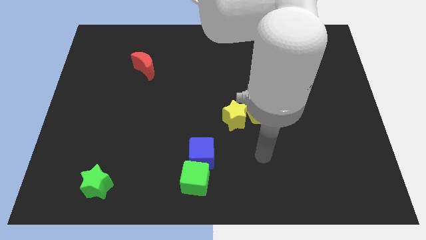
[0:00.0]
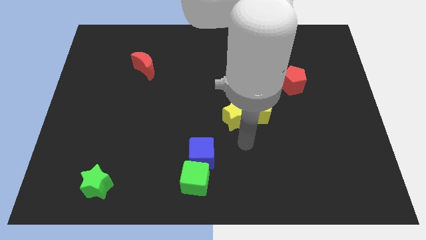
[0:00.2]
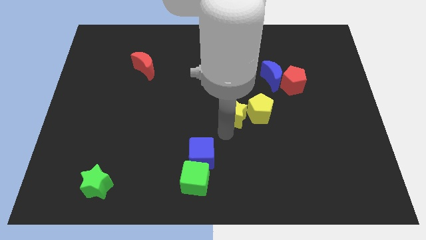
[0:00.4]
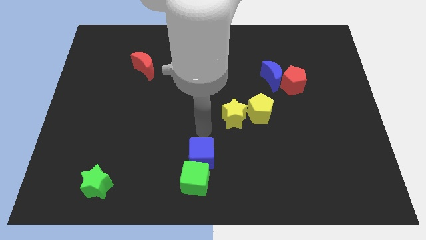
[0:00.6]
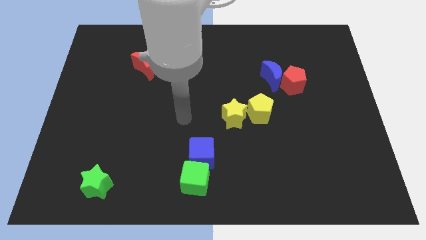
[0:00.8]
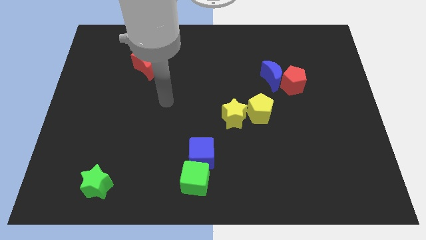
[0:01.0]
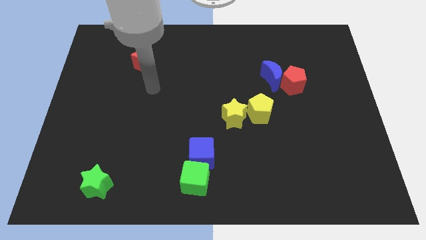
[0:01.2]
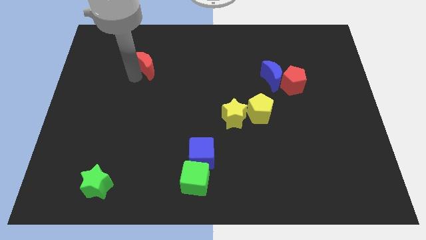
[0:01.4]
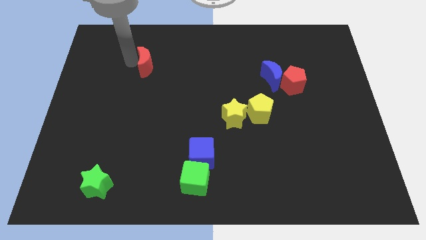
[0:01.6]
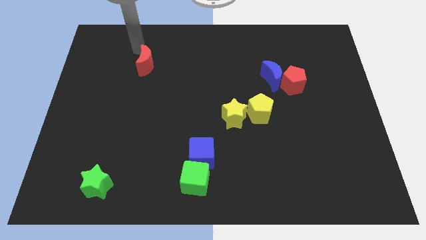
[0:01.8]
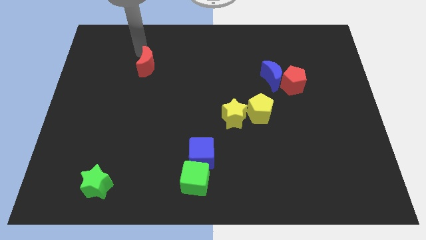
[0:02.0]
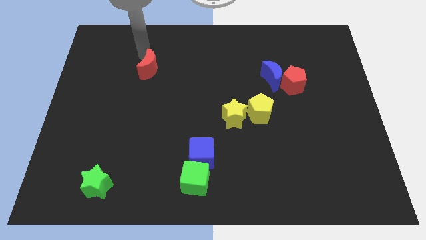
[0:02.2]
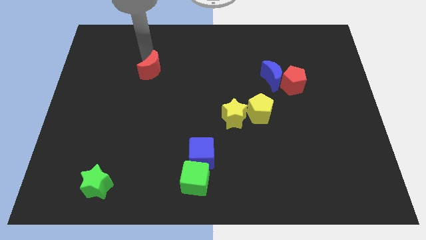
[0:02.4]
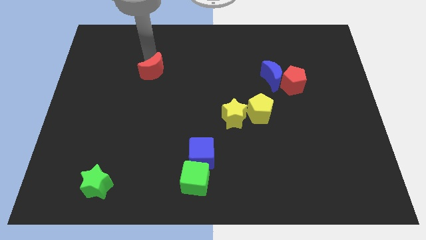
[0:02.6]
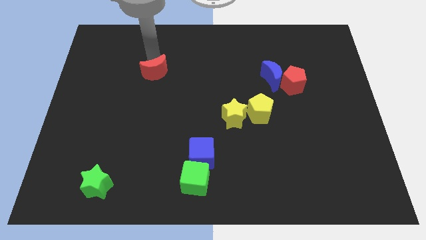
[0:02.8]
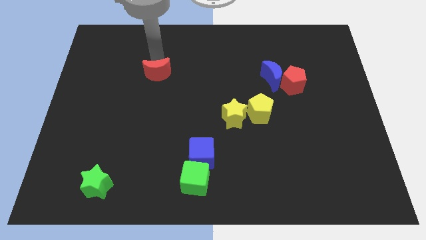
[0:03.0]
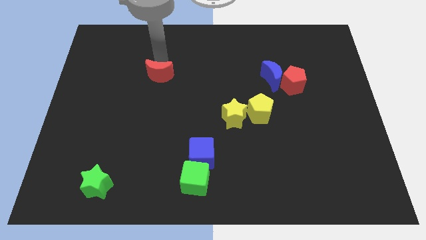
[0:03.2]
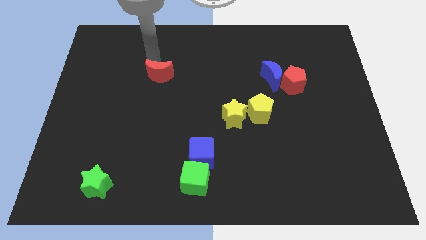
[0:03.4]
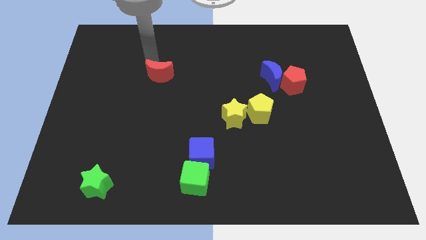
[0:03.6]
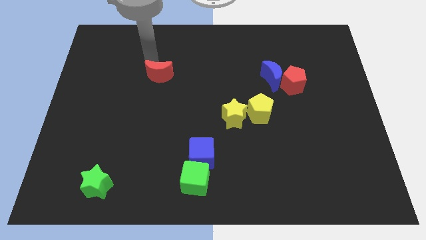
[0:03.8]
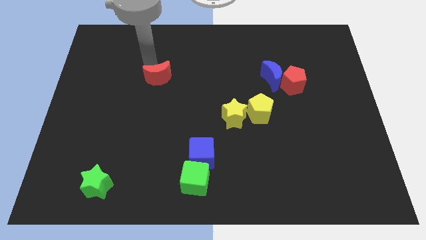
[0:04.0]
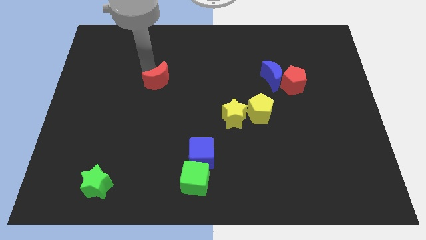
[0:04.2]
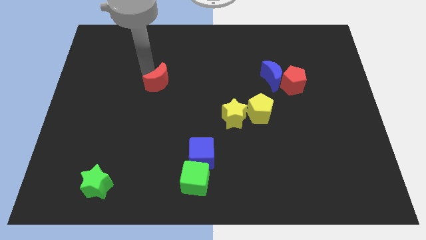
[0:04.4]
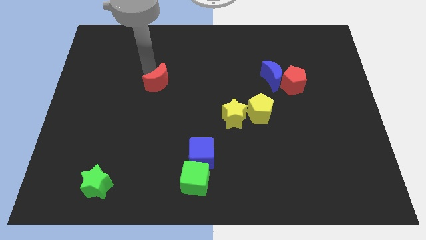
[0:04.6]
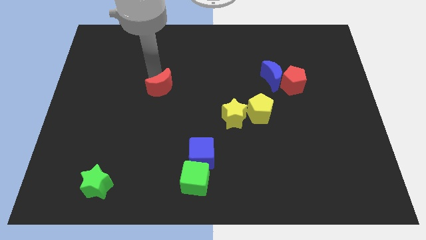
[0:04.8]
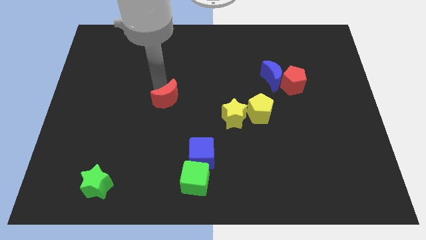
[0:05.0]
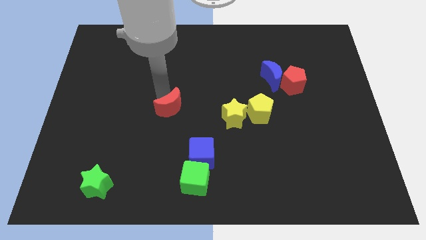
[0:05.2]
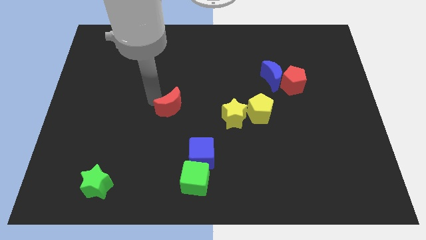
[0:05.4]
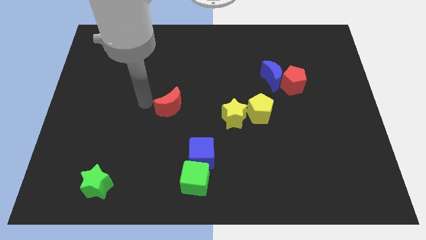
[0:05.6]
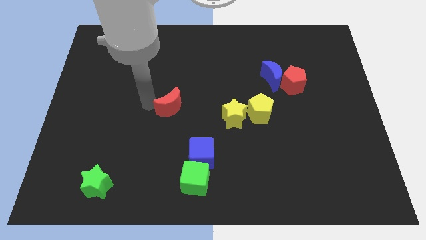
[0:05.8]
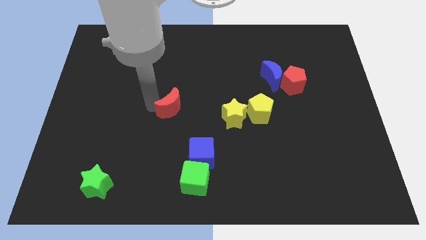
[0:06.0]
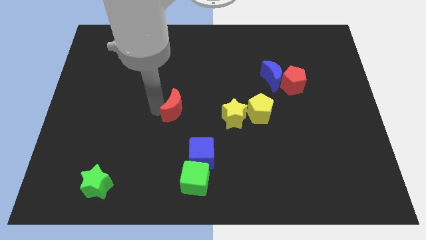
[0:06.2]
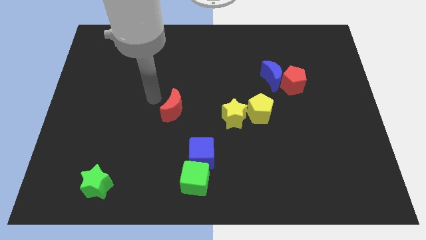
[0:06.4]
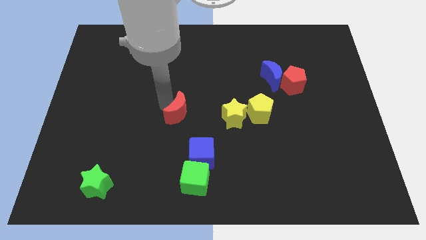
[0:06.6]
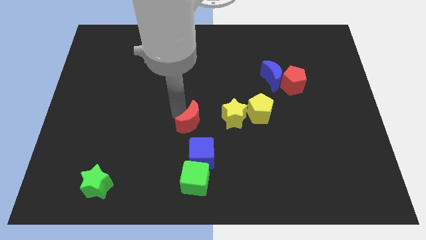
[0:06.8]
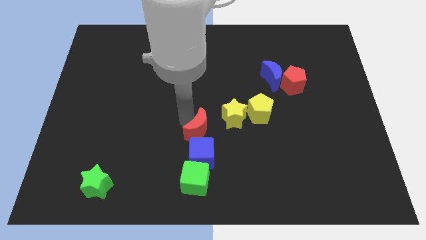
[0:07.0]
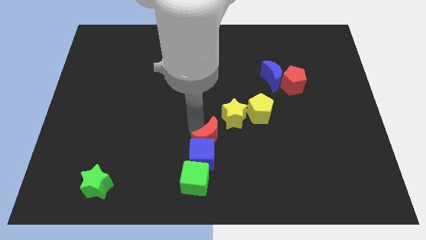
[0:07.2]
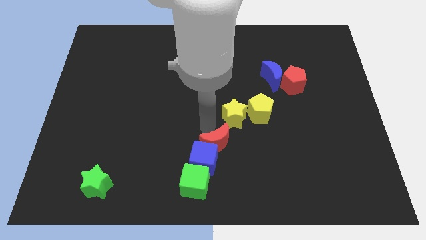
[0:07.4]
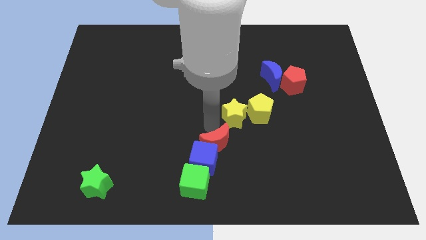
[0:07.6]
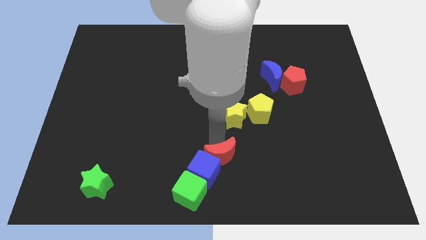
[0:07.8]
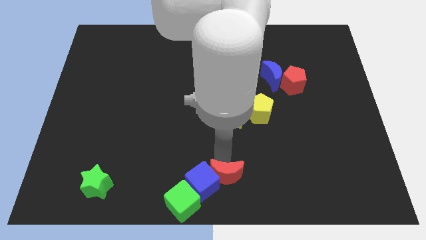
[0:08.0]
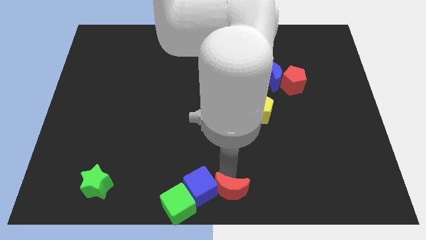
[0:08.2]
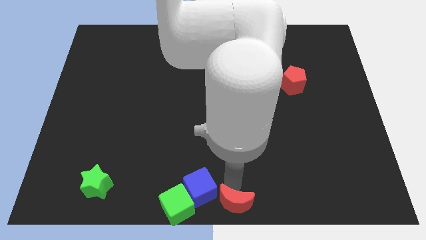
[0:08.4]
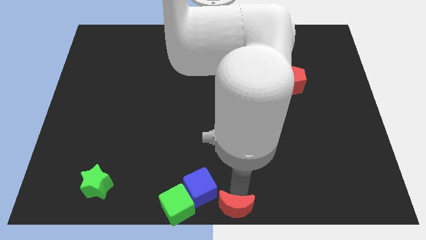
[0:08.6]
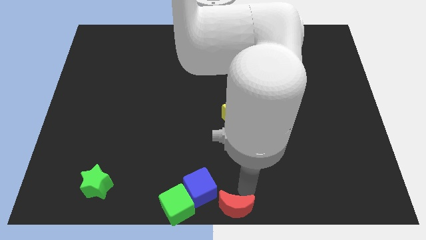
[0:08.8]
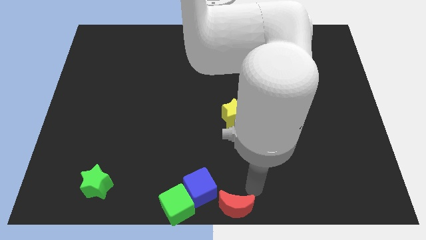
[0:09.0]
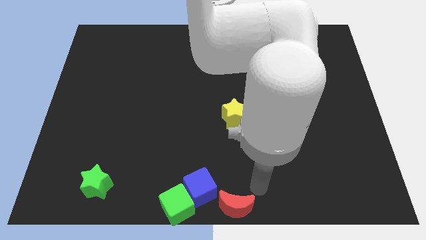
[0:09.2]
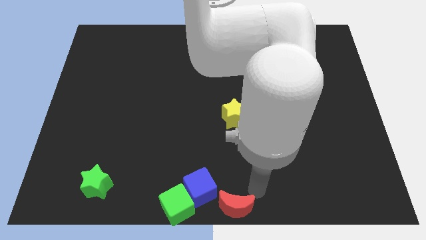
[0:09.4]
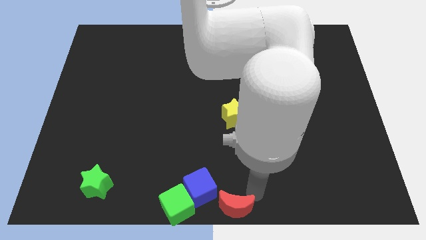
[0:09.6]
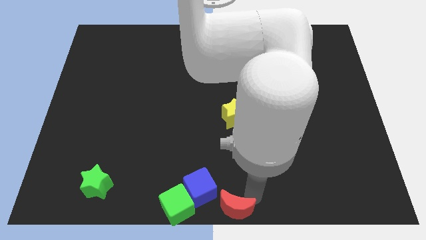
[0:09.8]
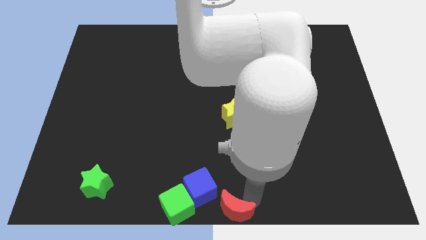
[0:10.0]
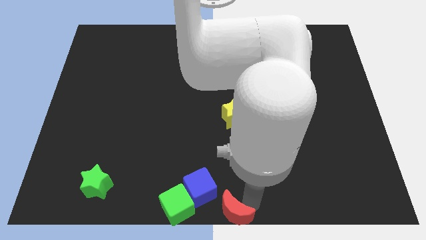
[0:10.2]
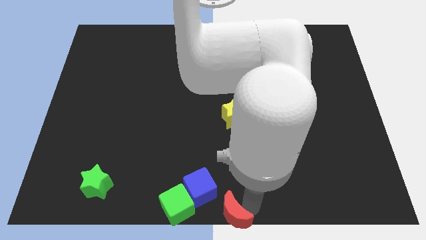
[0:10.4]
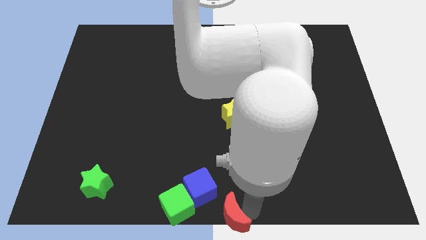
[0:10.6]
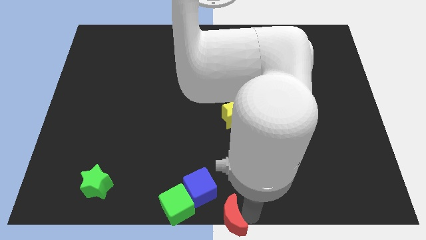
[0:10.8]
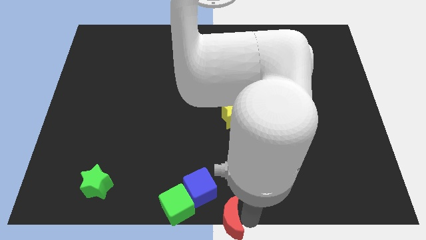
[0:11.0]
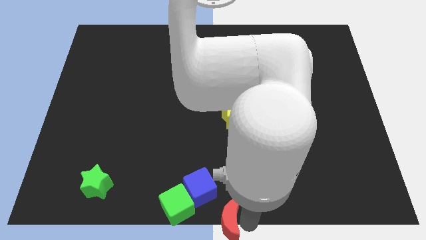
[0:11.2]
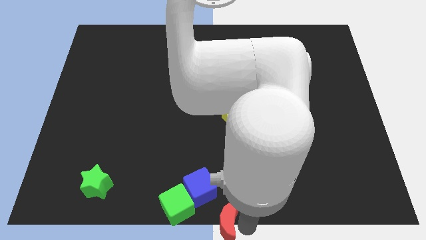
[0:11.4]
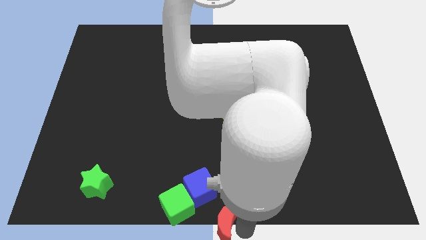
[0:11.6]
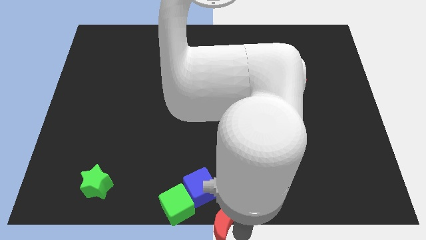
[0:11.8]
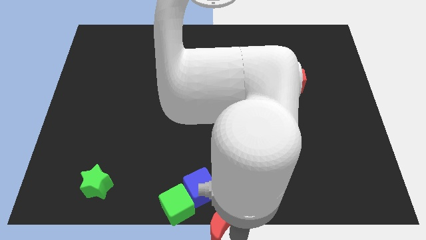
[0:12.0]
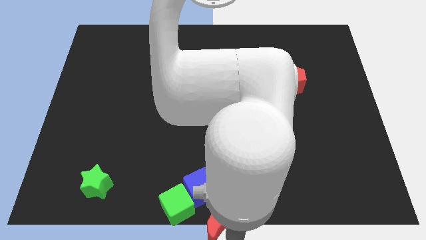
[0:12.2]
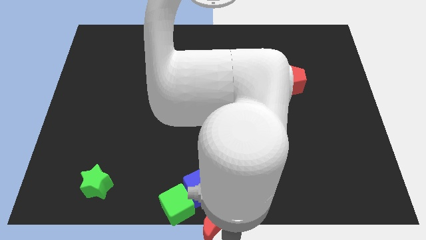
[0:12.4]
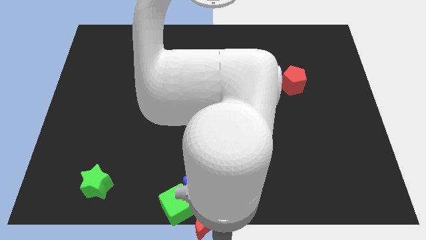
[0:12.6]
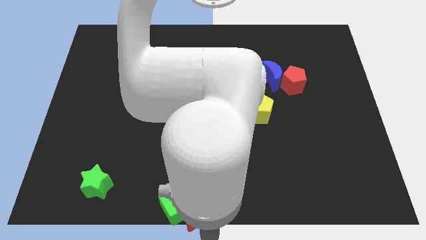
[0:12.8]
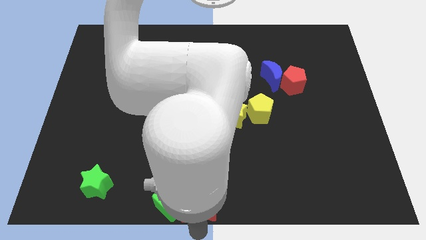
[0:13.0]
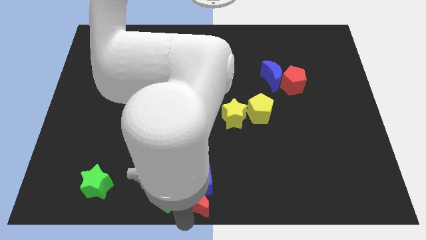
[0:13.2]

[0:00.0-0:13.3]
put the red moon to the bottom right of the blue cube
